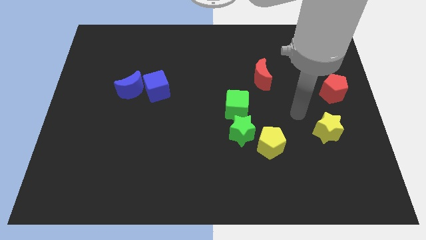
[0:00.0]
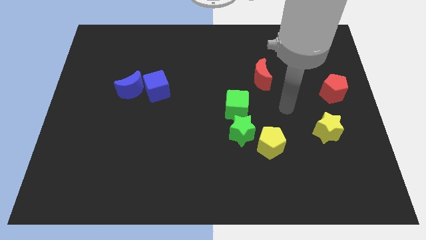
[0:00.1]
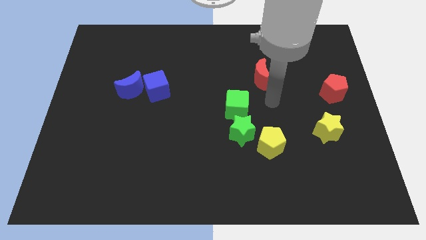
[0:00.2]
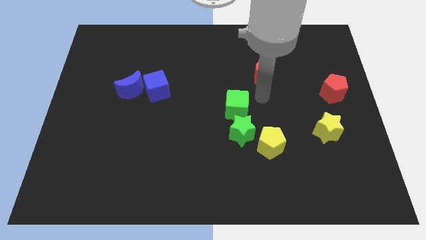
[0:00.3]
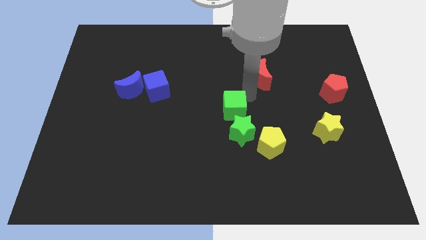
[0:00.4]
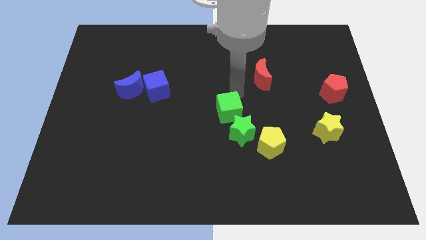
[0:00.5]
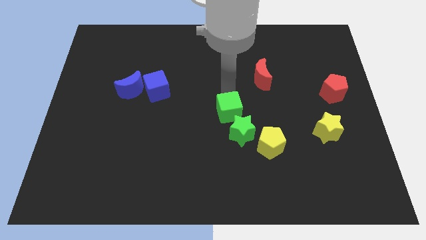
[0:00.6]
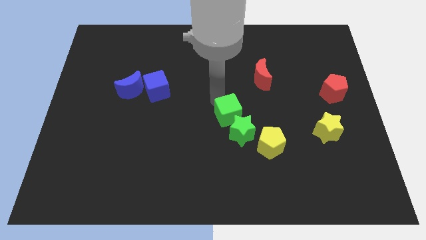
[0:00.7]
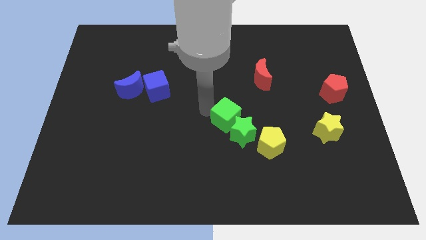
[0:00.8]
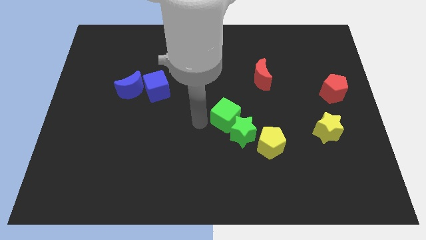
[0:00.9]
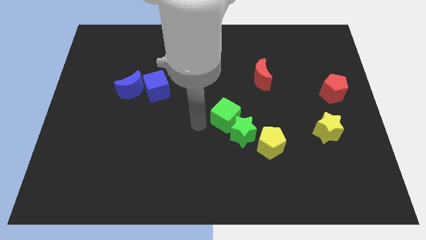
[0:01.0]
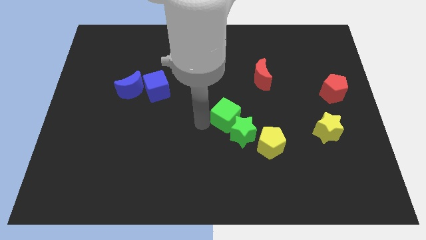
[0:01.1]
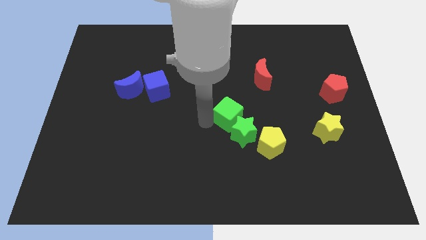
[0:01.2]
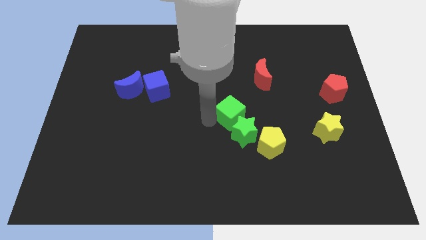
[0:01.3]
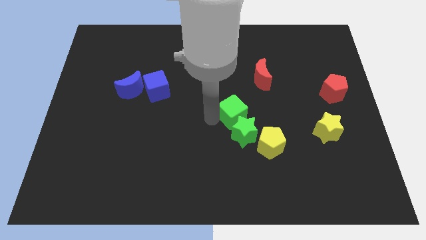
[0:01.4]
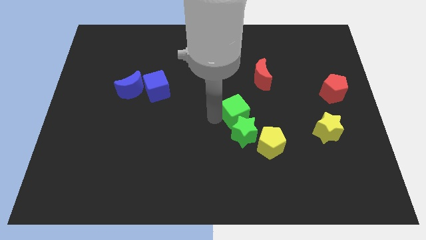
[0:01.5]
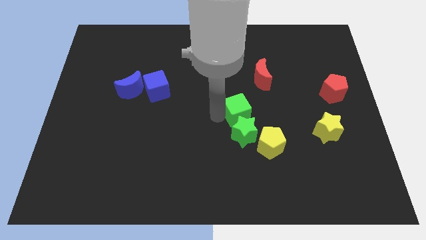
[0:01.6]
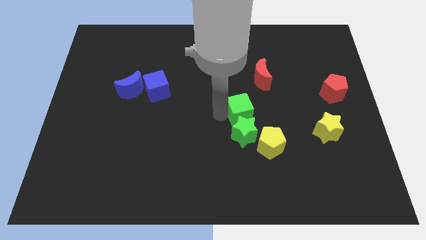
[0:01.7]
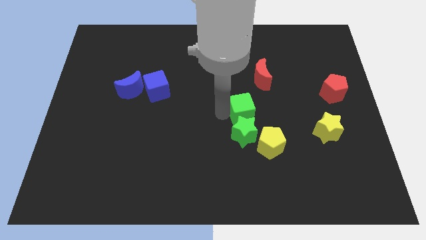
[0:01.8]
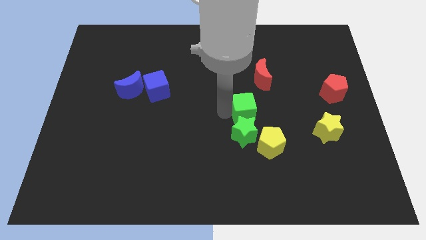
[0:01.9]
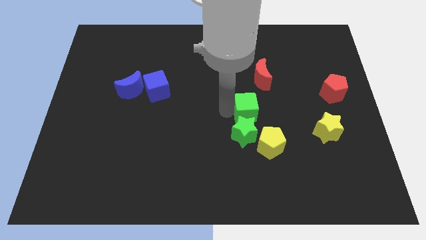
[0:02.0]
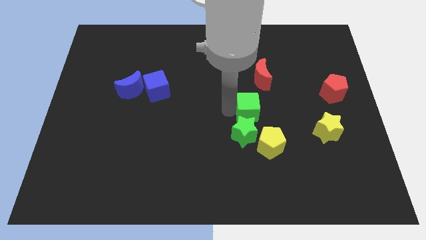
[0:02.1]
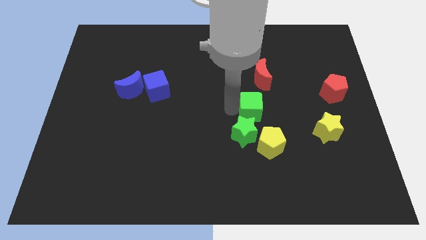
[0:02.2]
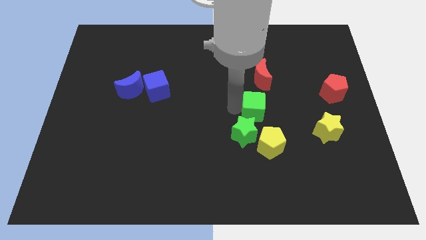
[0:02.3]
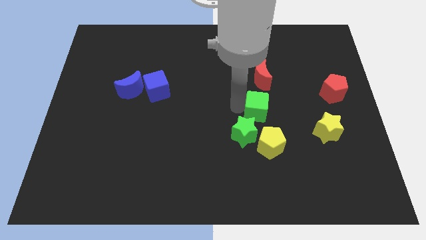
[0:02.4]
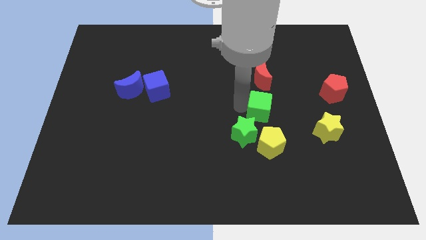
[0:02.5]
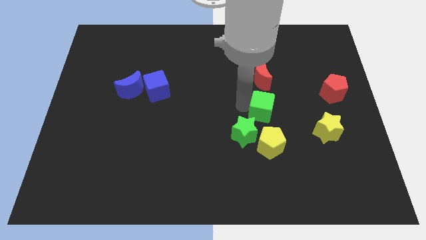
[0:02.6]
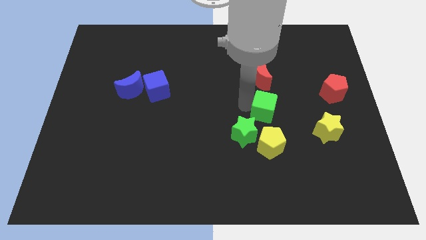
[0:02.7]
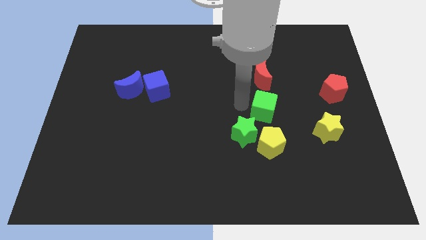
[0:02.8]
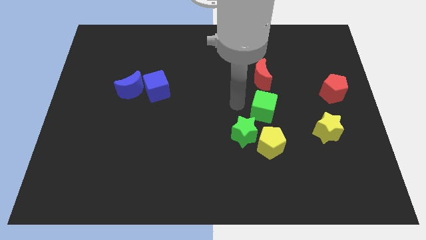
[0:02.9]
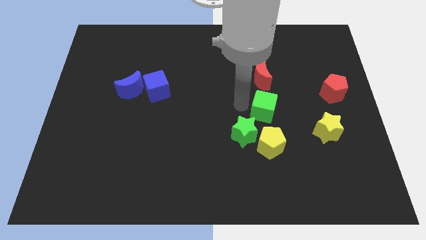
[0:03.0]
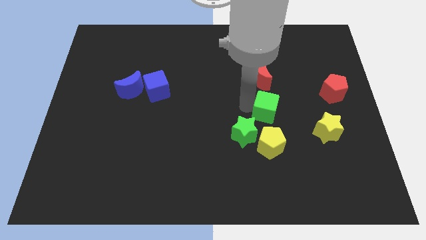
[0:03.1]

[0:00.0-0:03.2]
slightly slide the green cube to the right

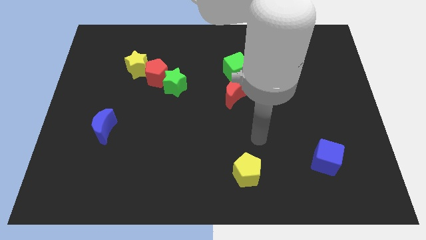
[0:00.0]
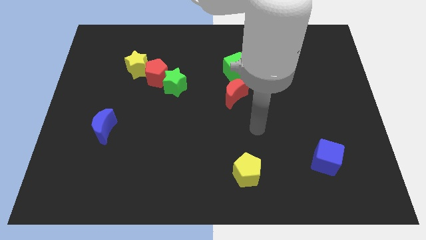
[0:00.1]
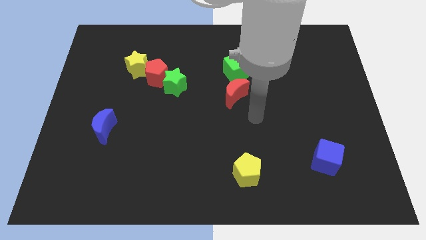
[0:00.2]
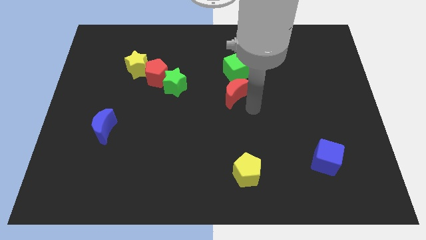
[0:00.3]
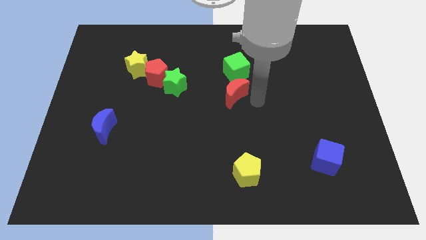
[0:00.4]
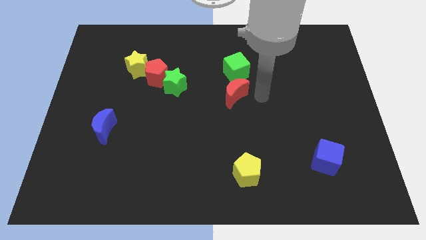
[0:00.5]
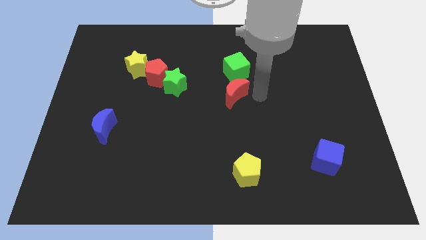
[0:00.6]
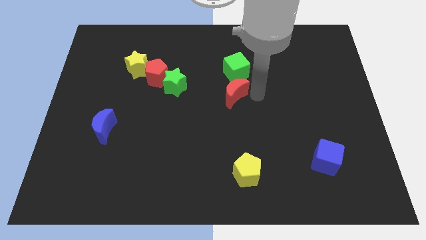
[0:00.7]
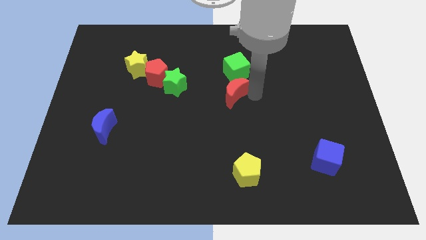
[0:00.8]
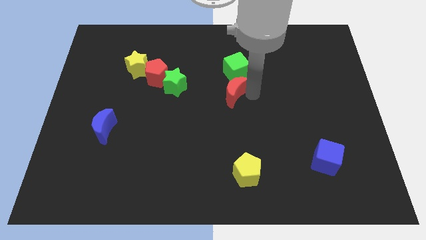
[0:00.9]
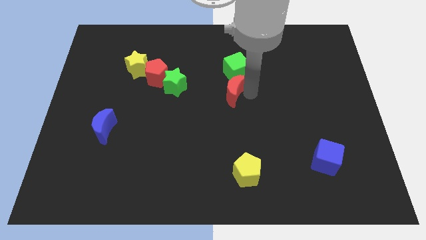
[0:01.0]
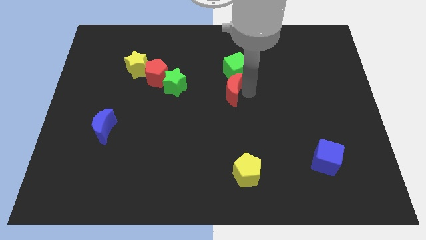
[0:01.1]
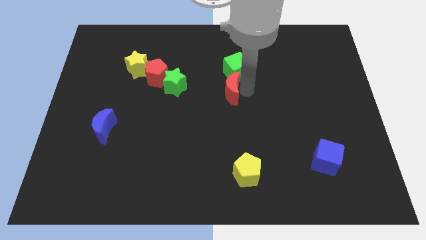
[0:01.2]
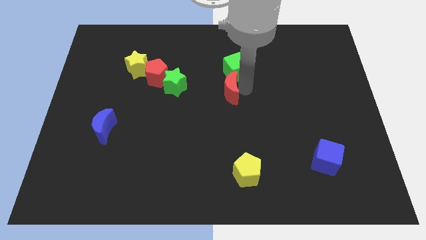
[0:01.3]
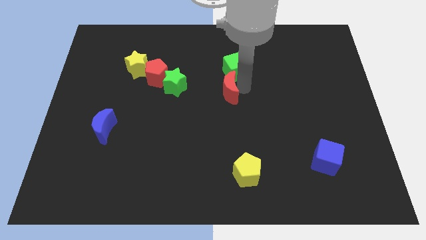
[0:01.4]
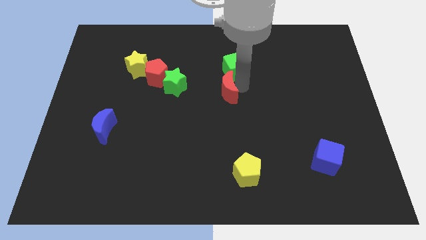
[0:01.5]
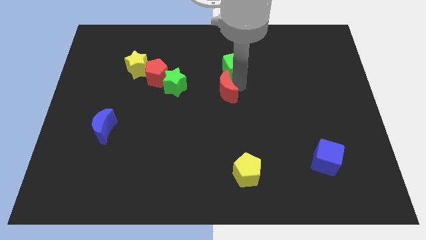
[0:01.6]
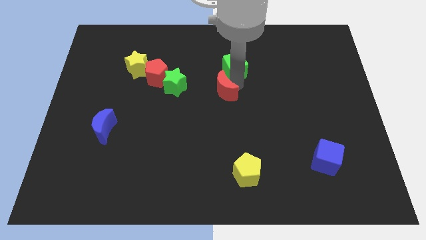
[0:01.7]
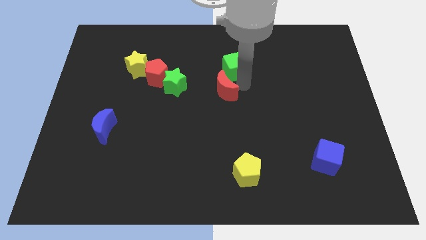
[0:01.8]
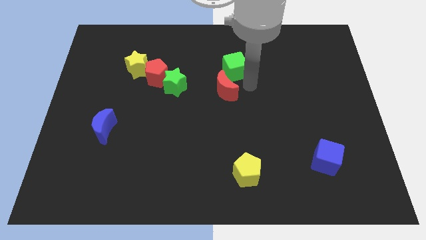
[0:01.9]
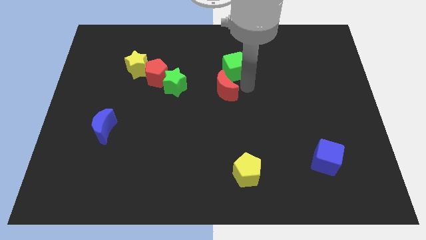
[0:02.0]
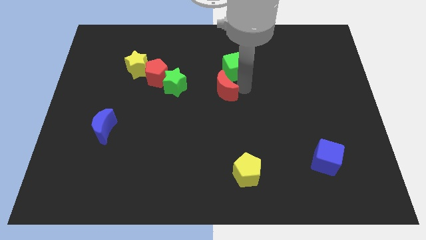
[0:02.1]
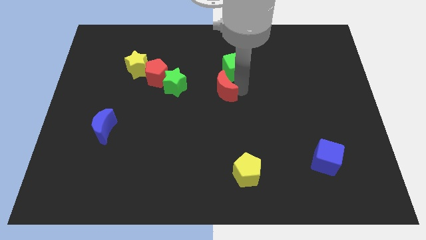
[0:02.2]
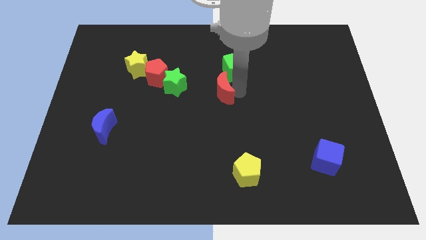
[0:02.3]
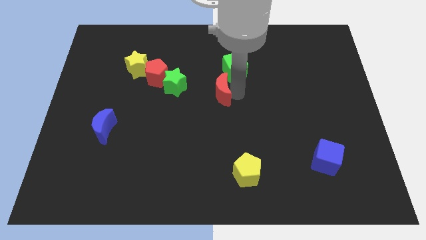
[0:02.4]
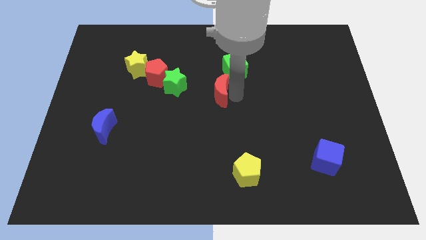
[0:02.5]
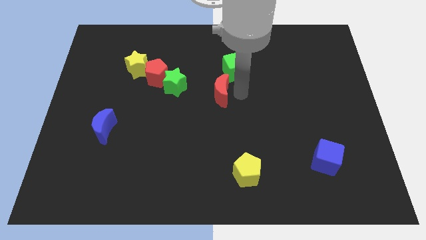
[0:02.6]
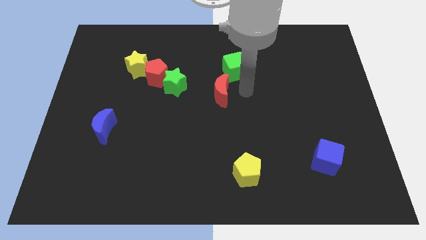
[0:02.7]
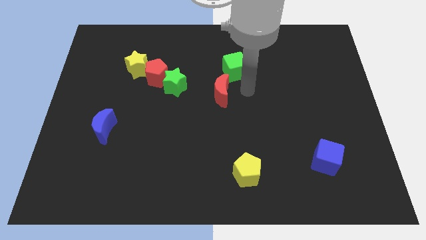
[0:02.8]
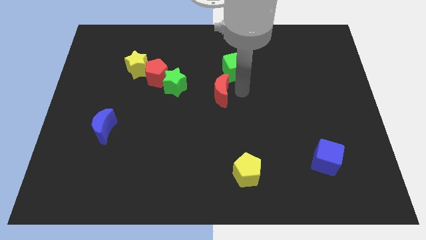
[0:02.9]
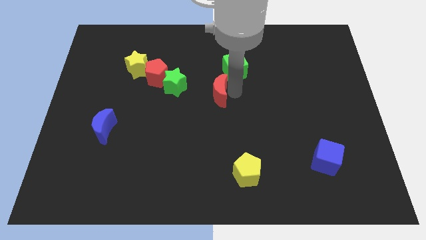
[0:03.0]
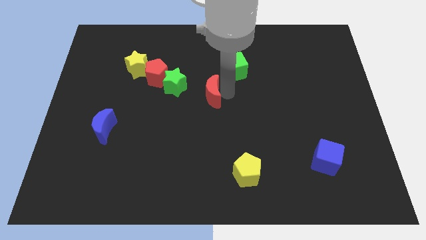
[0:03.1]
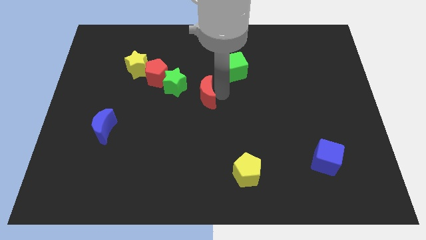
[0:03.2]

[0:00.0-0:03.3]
slide the red moon left a bit

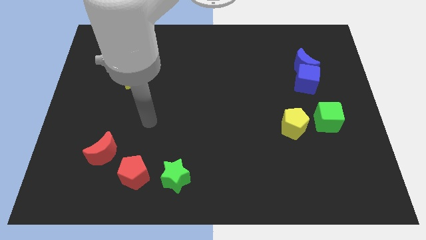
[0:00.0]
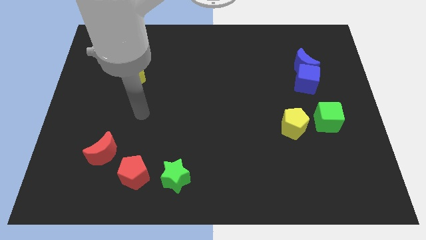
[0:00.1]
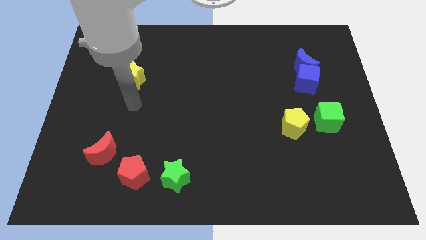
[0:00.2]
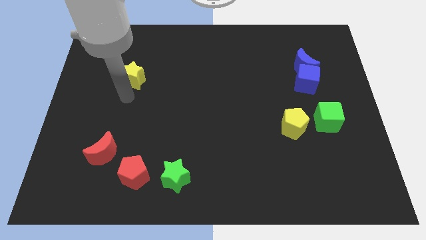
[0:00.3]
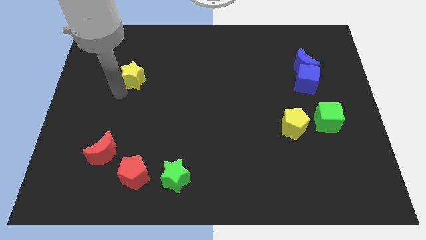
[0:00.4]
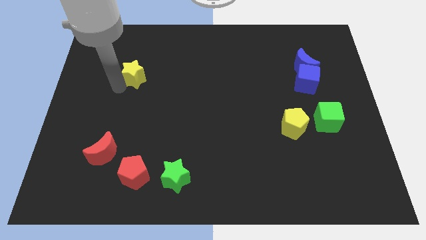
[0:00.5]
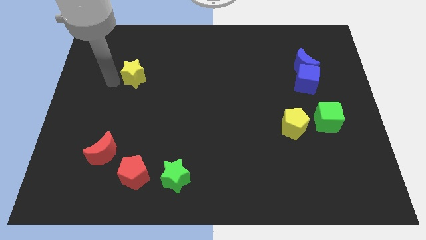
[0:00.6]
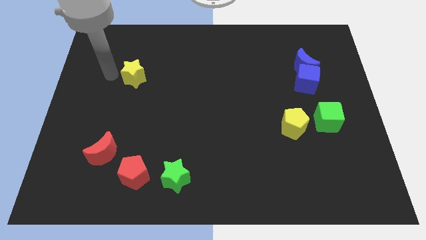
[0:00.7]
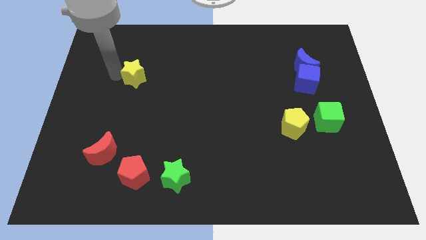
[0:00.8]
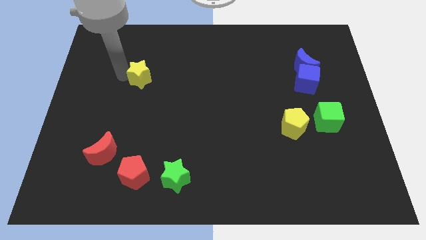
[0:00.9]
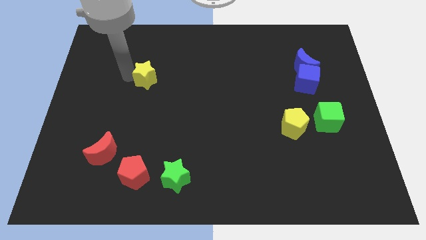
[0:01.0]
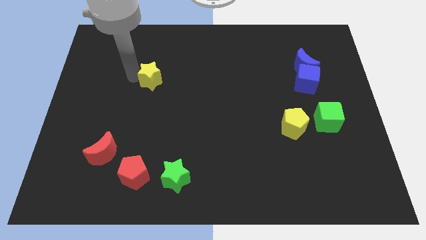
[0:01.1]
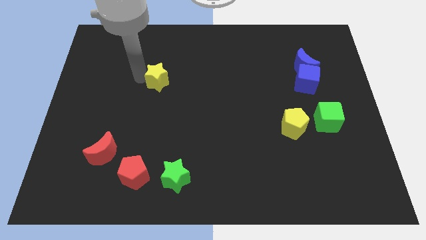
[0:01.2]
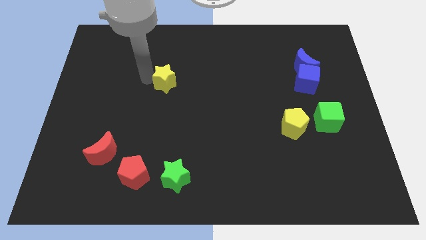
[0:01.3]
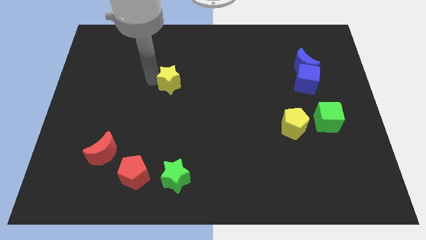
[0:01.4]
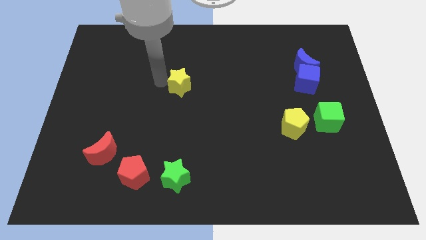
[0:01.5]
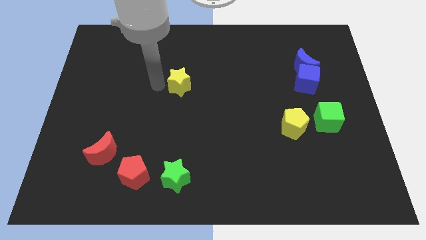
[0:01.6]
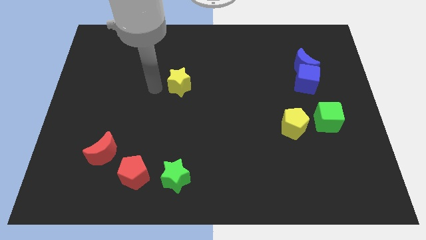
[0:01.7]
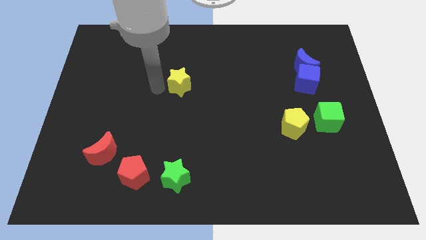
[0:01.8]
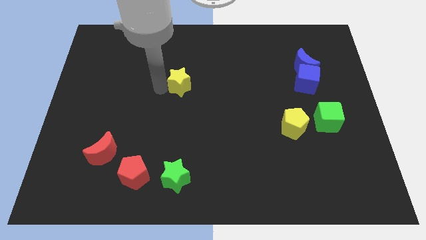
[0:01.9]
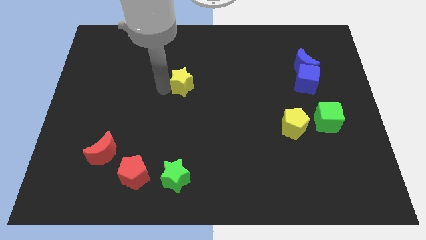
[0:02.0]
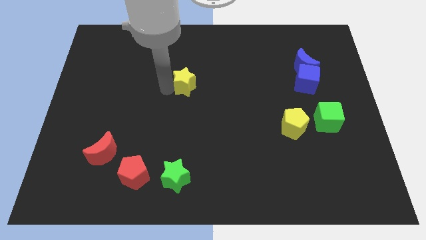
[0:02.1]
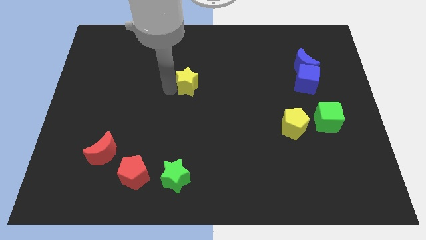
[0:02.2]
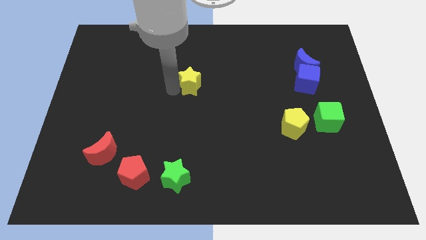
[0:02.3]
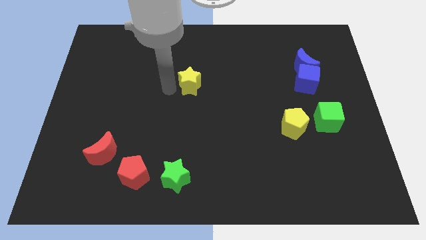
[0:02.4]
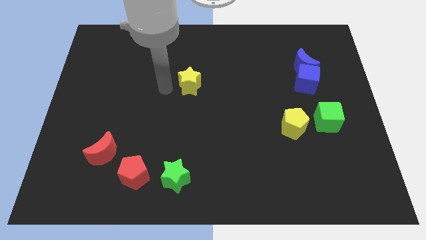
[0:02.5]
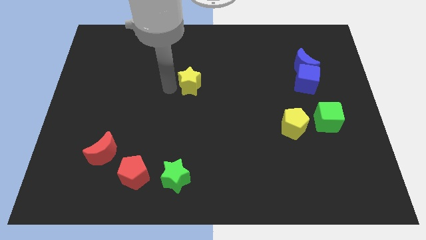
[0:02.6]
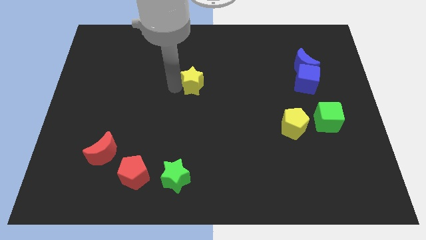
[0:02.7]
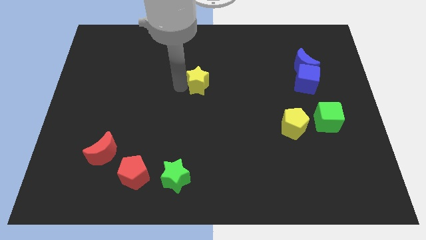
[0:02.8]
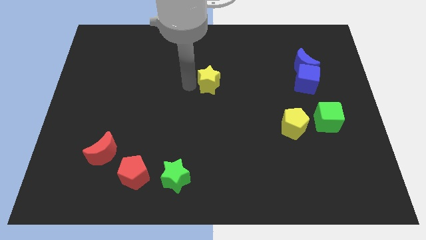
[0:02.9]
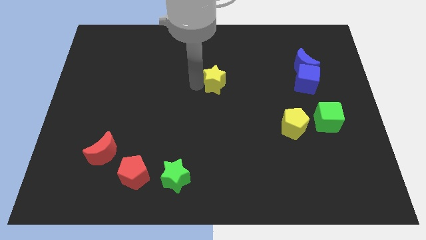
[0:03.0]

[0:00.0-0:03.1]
move the yellow star right
